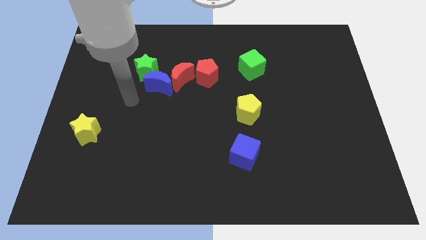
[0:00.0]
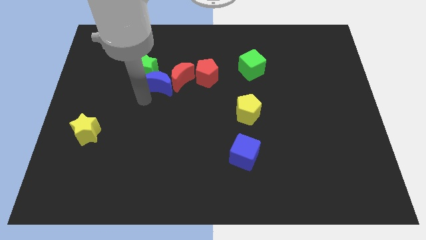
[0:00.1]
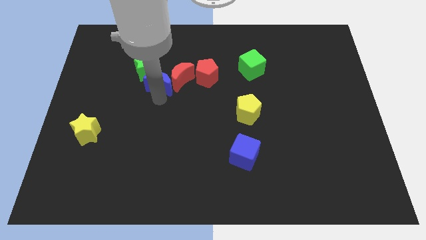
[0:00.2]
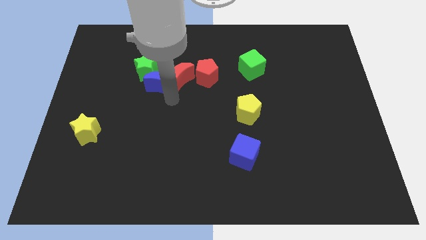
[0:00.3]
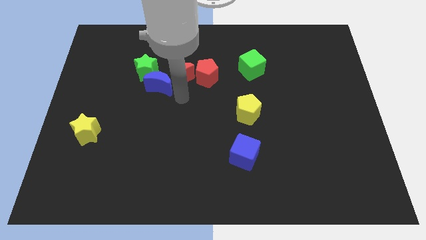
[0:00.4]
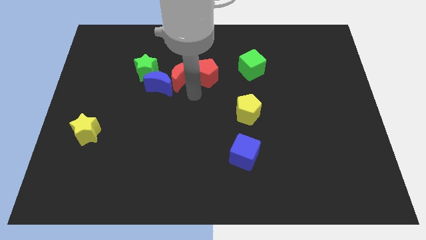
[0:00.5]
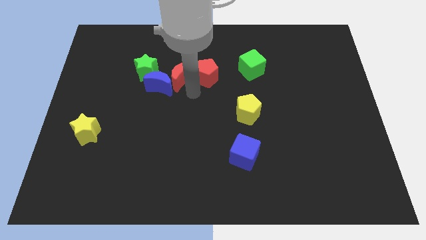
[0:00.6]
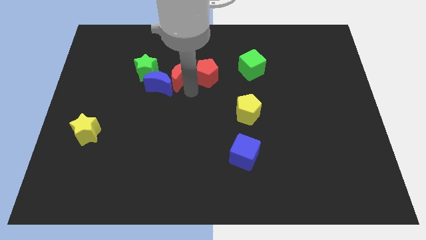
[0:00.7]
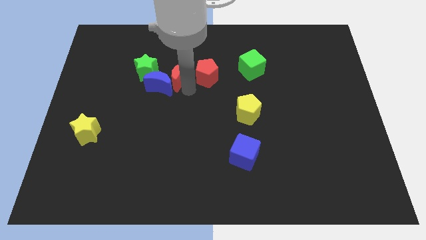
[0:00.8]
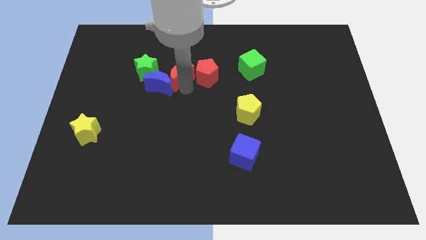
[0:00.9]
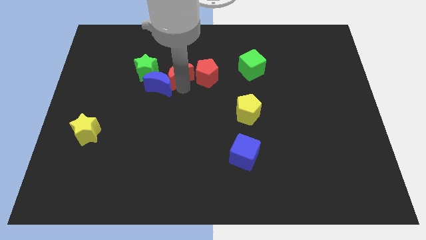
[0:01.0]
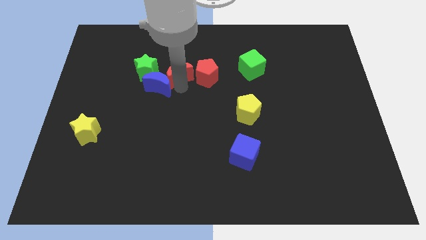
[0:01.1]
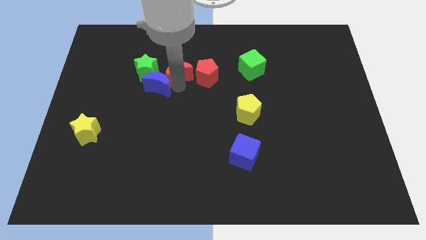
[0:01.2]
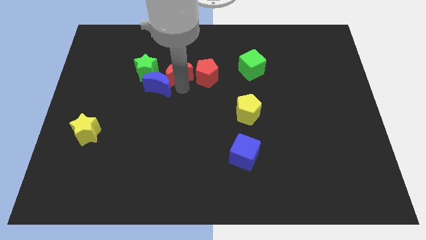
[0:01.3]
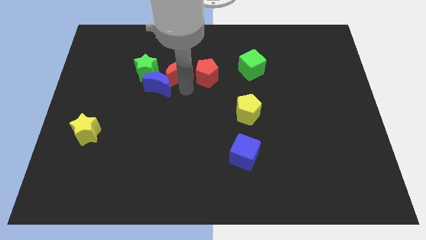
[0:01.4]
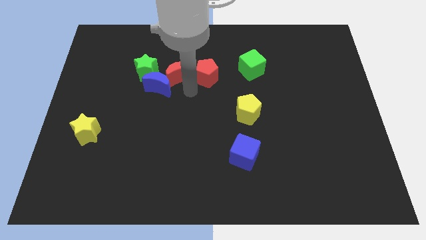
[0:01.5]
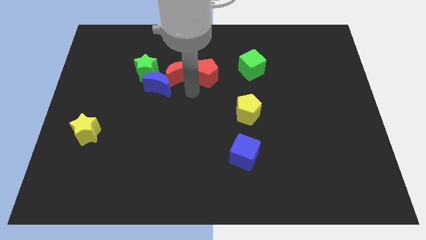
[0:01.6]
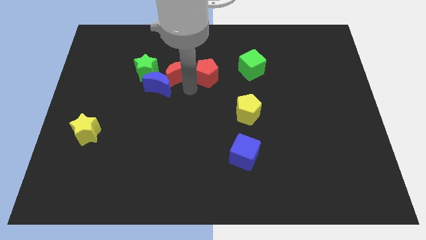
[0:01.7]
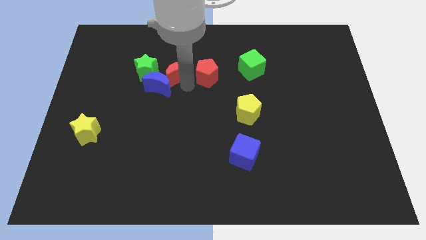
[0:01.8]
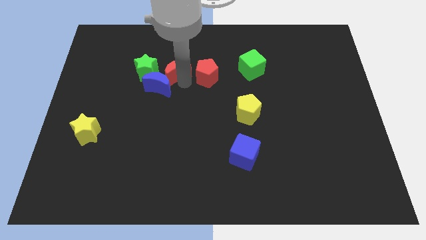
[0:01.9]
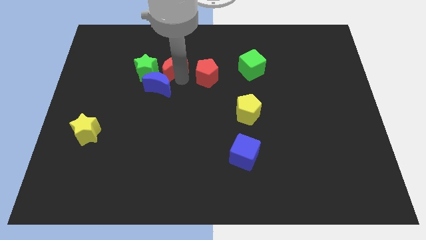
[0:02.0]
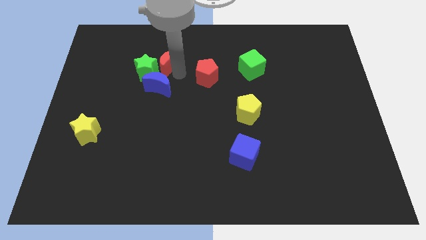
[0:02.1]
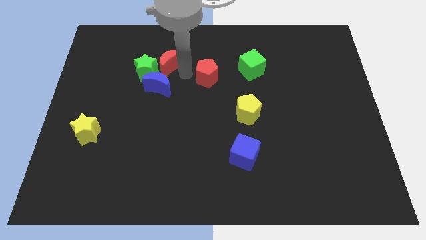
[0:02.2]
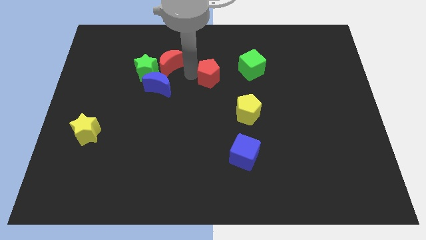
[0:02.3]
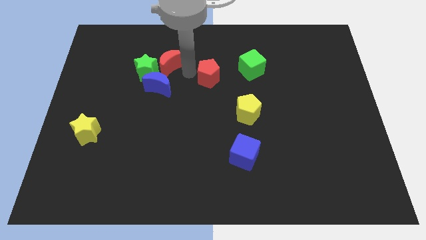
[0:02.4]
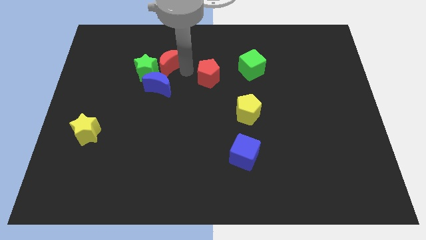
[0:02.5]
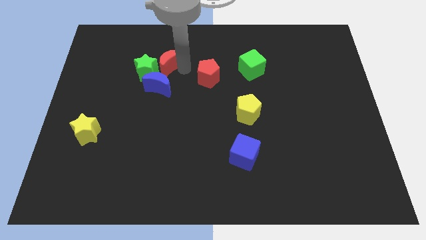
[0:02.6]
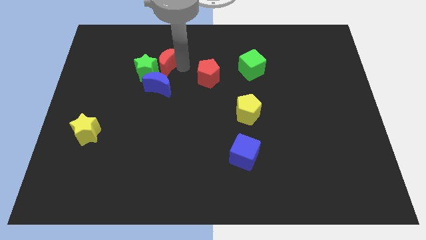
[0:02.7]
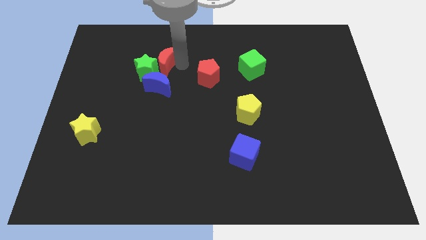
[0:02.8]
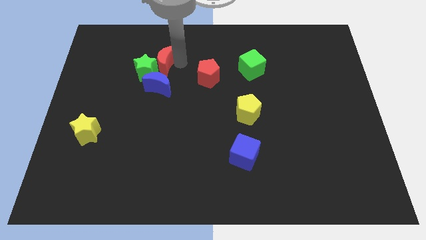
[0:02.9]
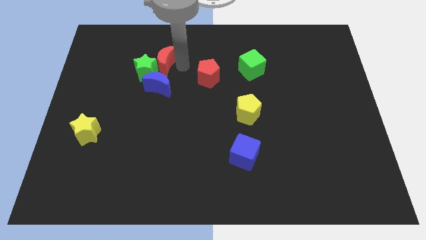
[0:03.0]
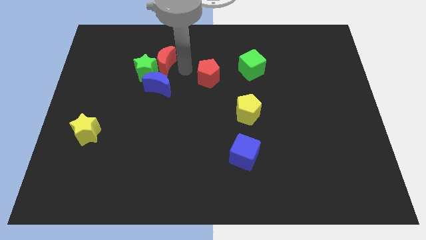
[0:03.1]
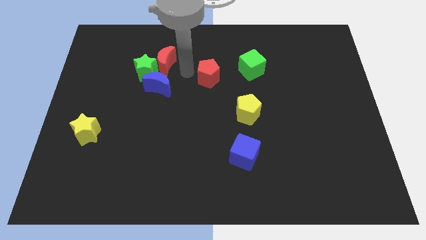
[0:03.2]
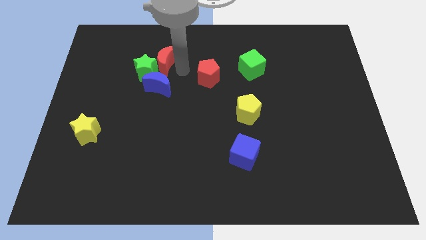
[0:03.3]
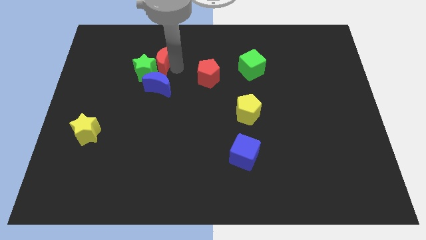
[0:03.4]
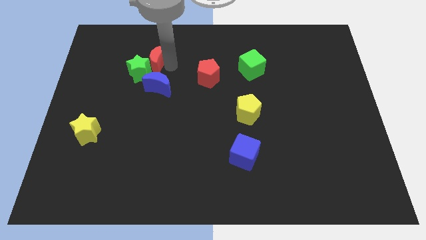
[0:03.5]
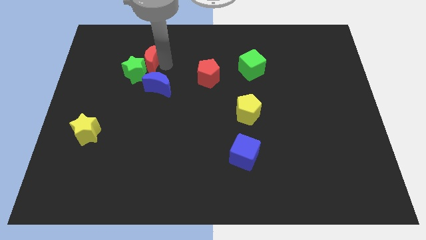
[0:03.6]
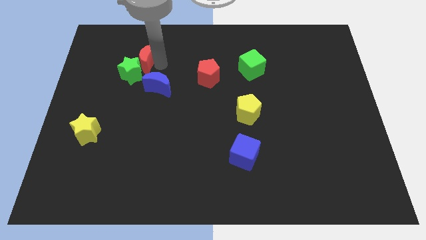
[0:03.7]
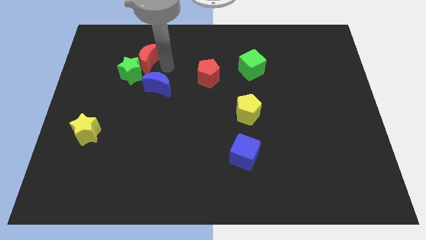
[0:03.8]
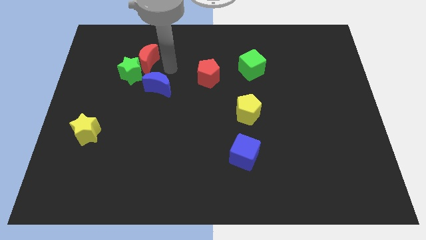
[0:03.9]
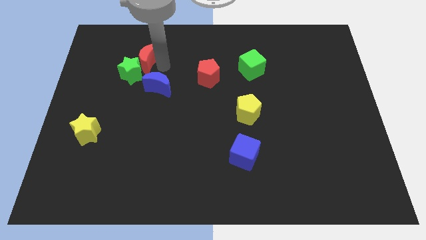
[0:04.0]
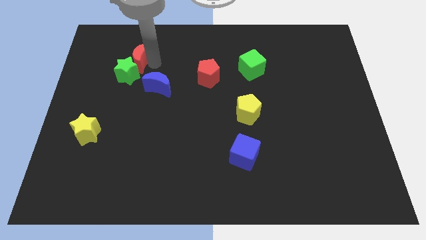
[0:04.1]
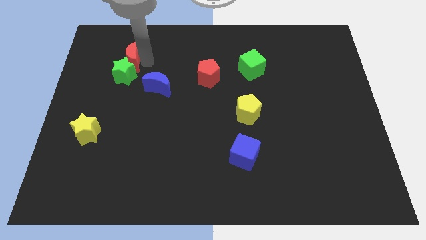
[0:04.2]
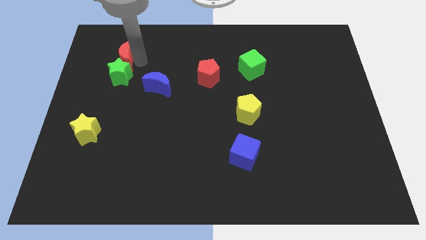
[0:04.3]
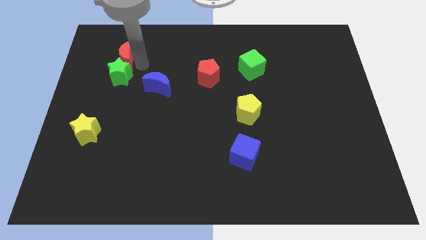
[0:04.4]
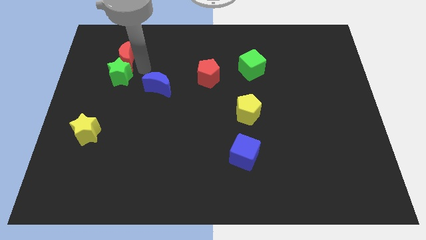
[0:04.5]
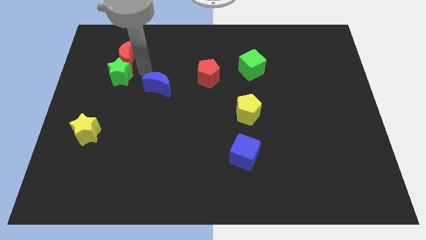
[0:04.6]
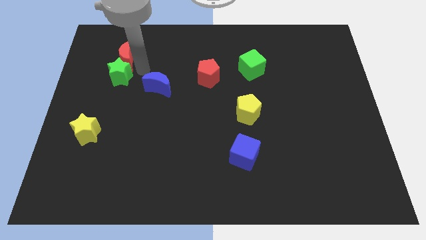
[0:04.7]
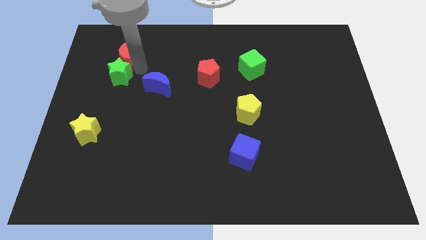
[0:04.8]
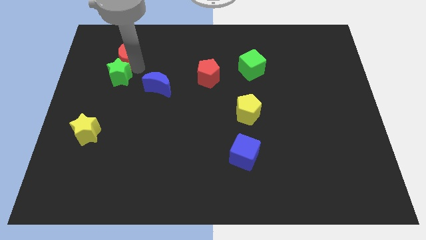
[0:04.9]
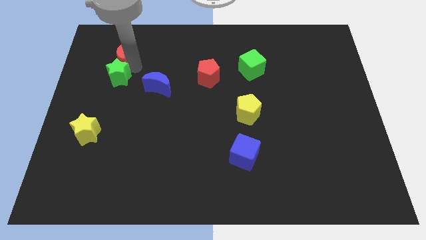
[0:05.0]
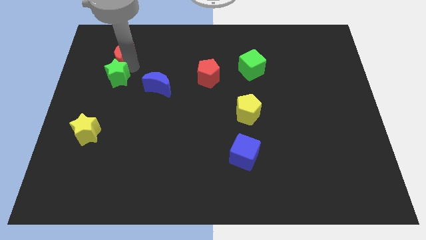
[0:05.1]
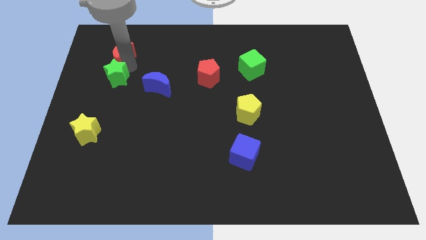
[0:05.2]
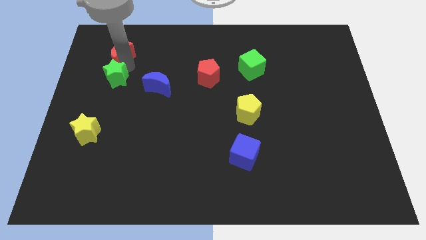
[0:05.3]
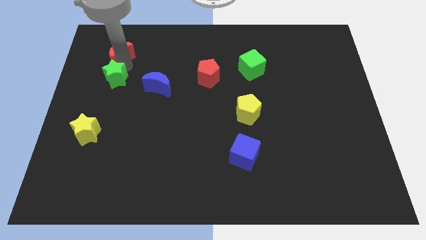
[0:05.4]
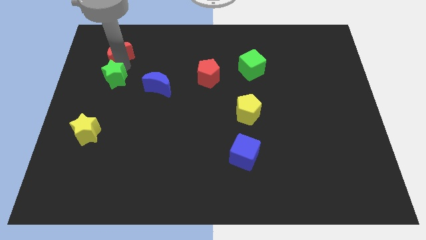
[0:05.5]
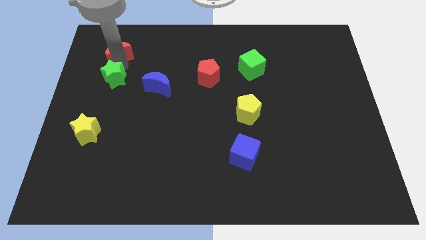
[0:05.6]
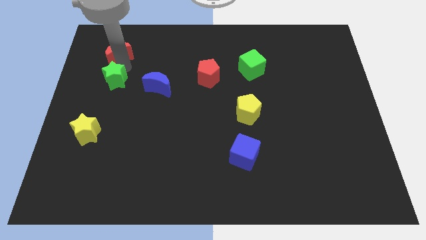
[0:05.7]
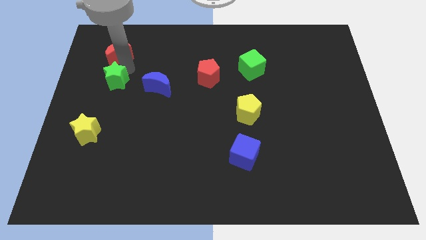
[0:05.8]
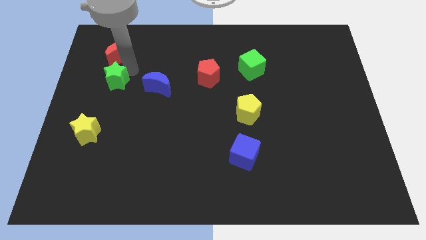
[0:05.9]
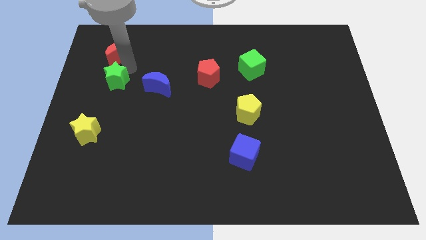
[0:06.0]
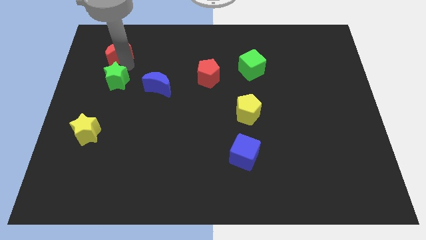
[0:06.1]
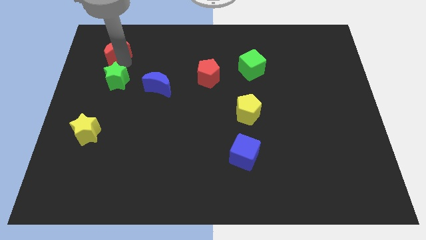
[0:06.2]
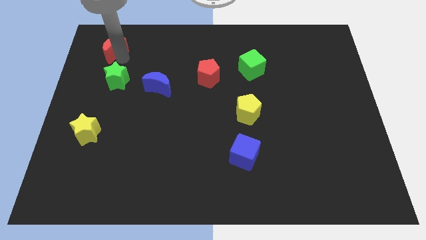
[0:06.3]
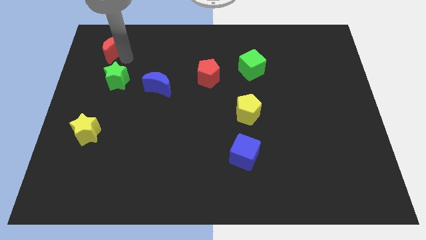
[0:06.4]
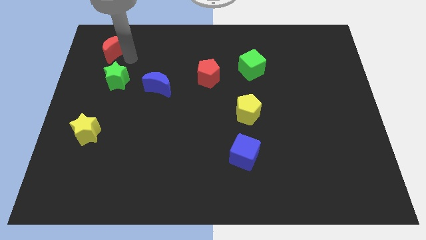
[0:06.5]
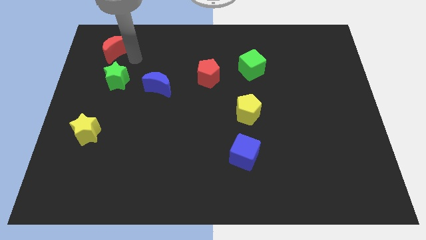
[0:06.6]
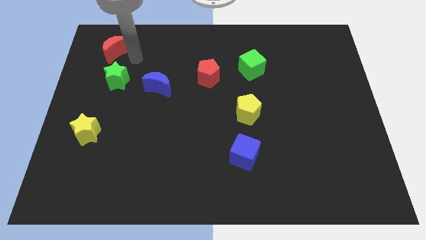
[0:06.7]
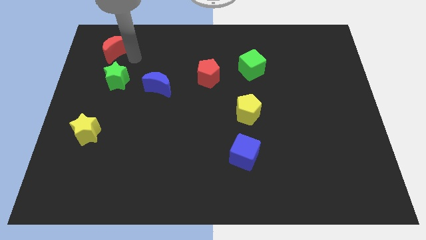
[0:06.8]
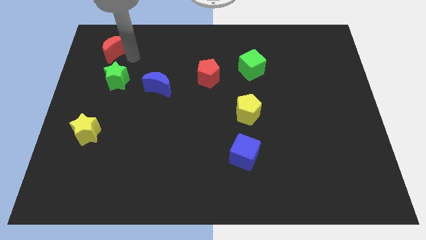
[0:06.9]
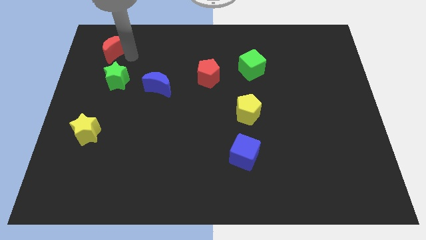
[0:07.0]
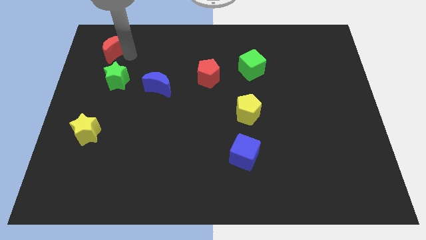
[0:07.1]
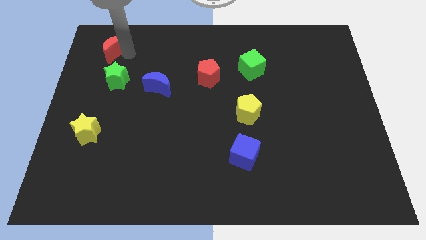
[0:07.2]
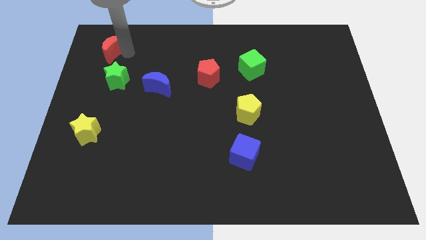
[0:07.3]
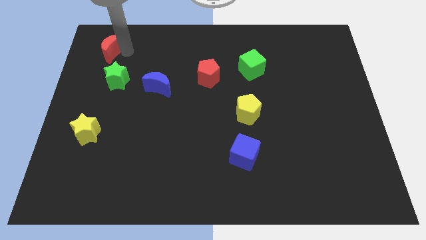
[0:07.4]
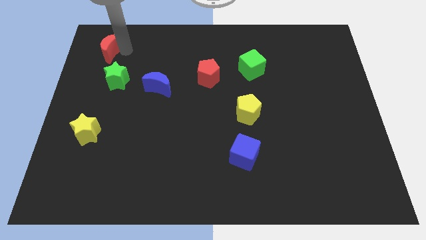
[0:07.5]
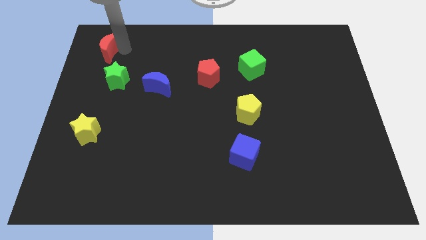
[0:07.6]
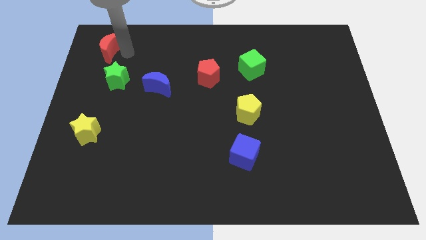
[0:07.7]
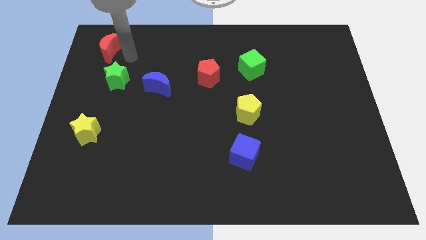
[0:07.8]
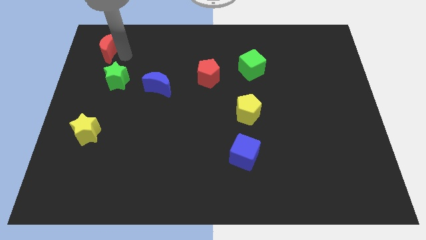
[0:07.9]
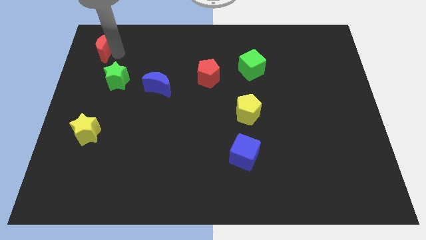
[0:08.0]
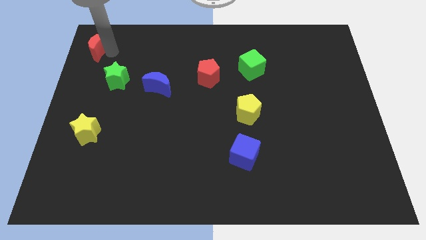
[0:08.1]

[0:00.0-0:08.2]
move the red moon to the upper left corner
